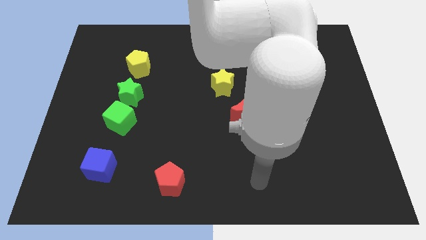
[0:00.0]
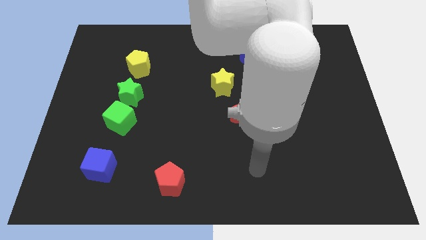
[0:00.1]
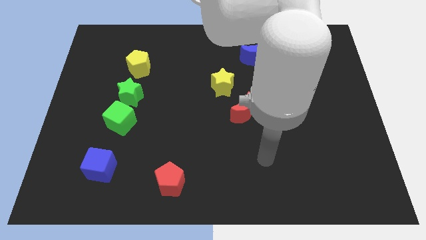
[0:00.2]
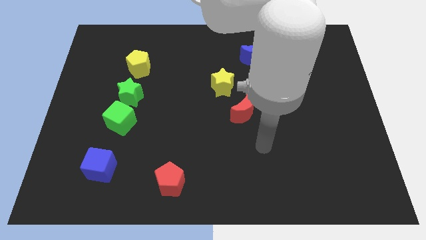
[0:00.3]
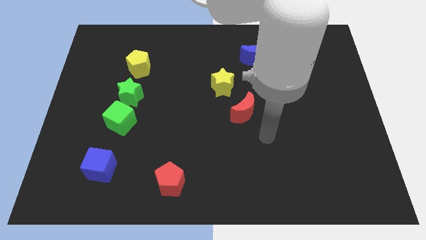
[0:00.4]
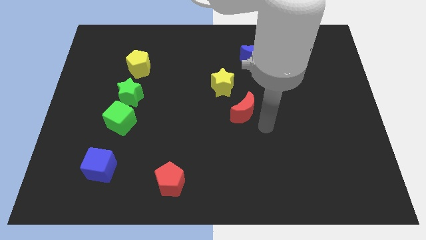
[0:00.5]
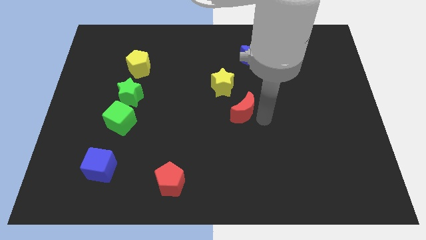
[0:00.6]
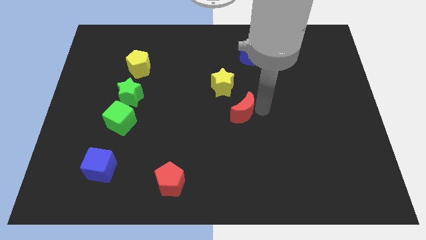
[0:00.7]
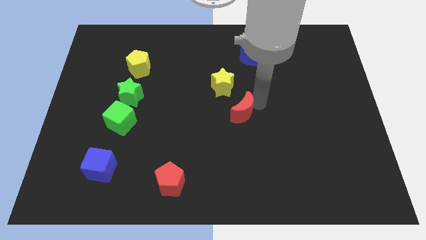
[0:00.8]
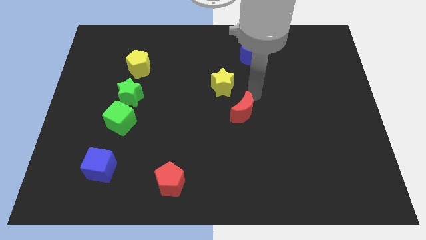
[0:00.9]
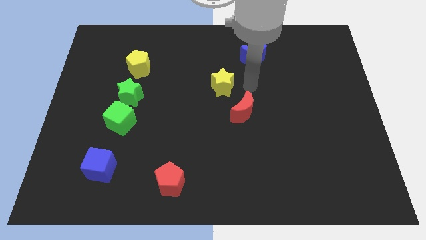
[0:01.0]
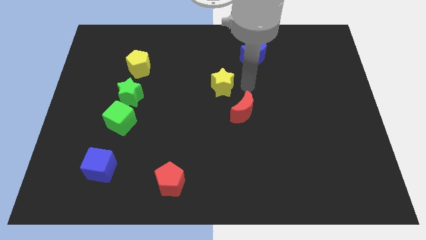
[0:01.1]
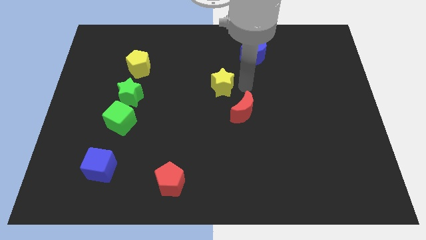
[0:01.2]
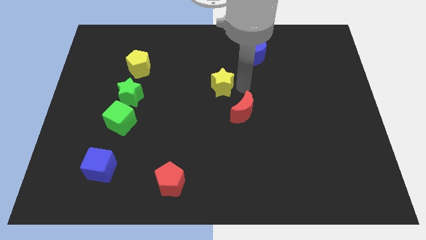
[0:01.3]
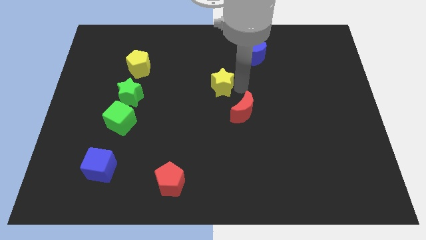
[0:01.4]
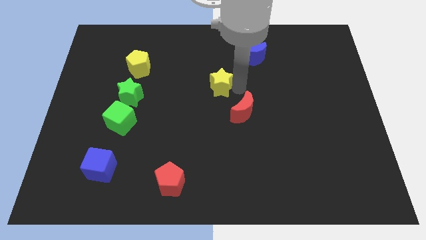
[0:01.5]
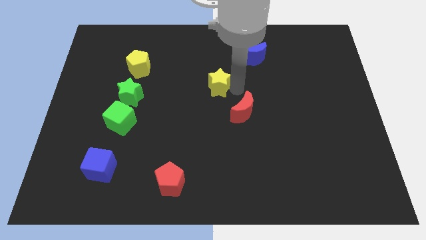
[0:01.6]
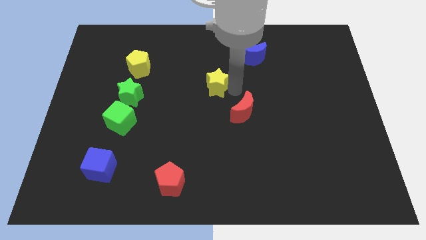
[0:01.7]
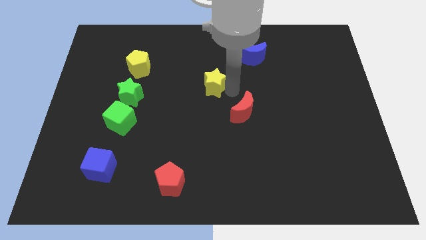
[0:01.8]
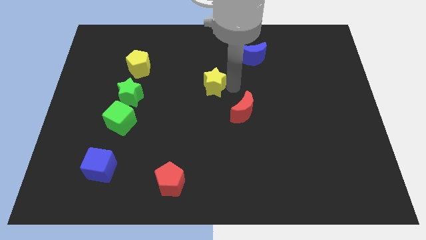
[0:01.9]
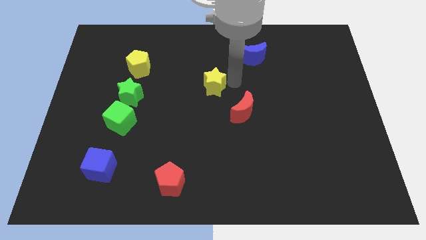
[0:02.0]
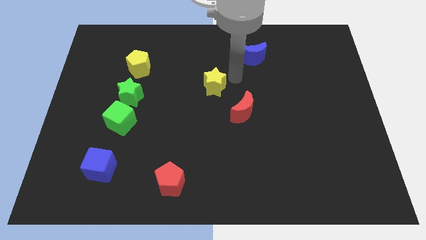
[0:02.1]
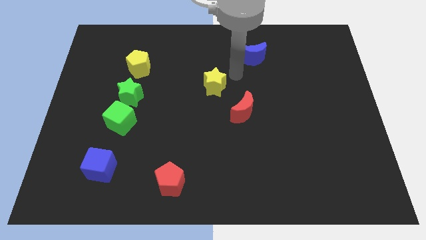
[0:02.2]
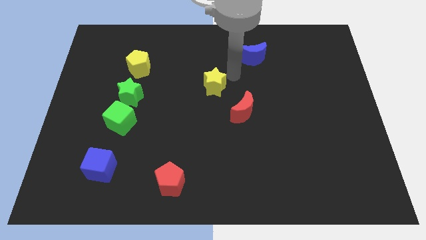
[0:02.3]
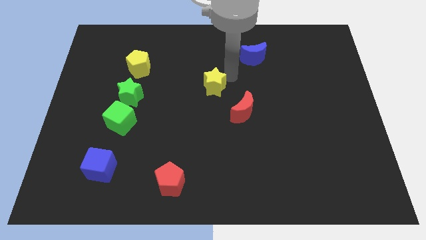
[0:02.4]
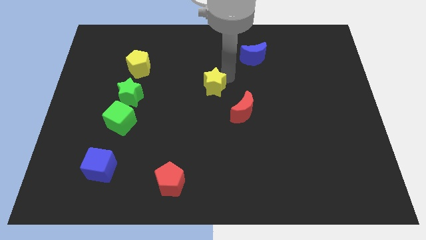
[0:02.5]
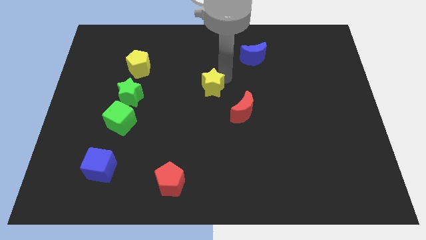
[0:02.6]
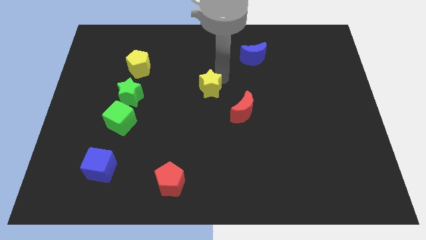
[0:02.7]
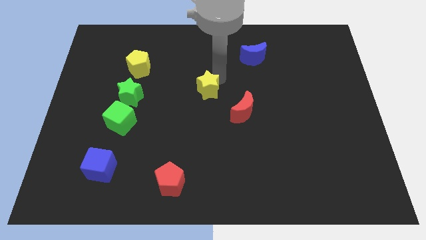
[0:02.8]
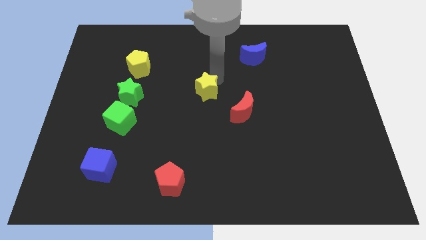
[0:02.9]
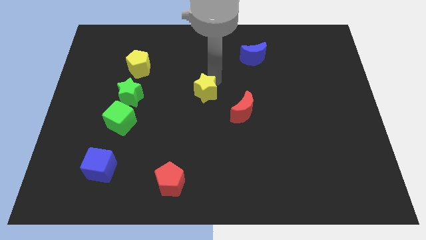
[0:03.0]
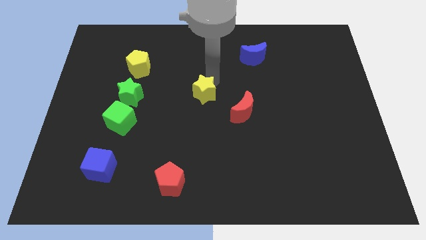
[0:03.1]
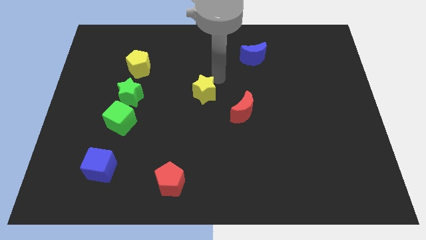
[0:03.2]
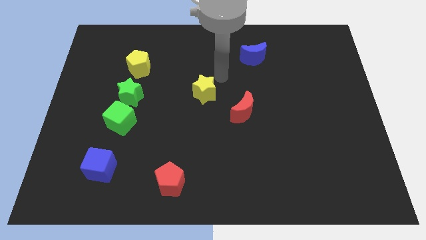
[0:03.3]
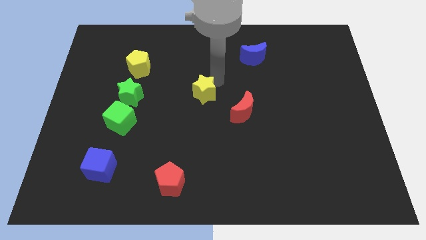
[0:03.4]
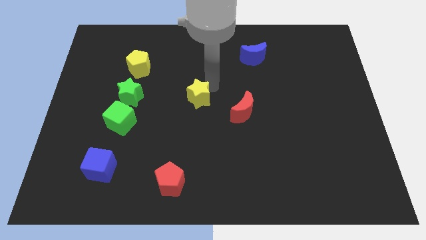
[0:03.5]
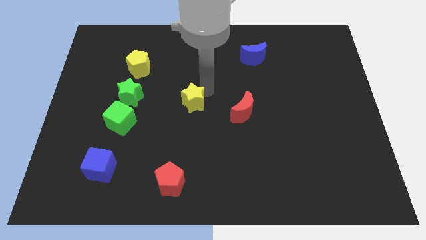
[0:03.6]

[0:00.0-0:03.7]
slightly push the yellow star down and left

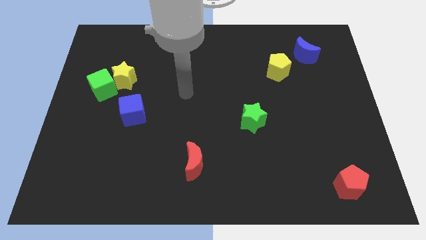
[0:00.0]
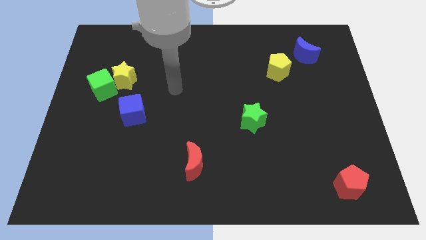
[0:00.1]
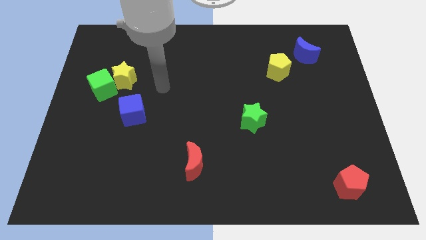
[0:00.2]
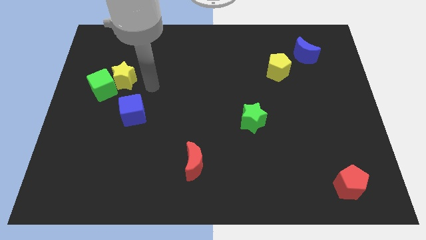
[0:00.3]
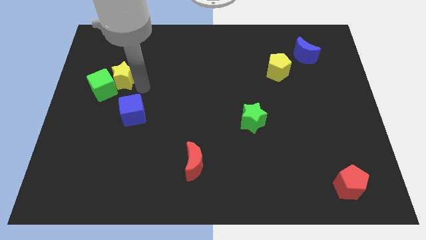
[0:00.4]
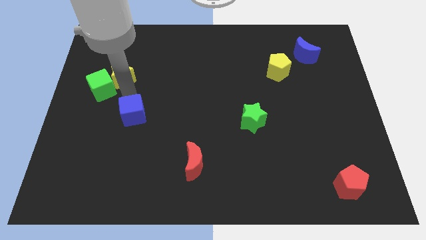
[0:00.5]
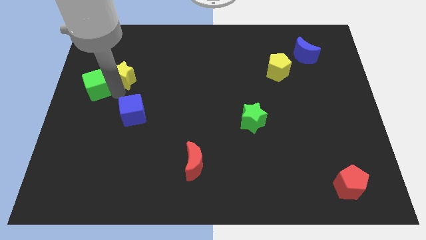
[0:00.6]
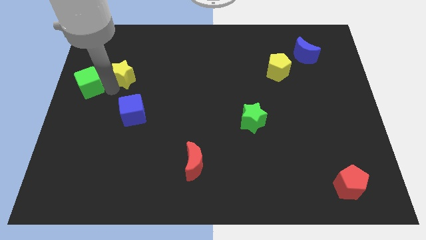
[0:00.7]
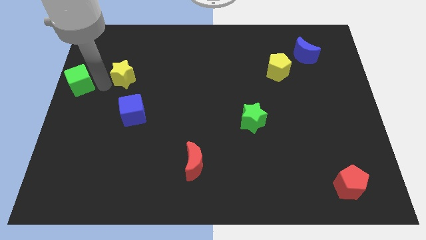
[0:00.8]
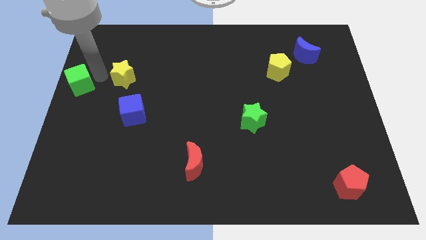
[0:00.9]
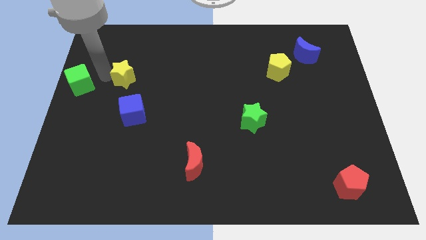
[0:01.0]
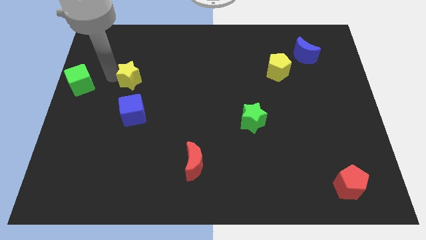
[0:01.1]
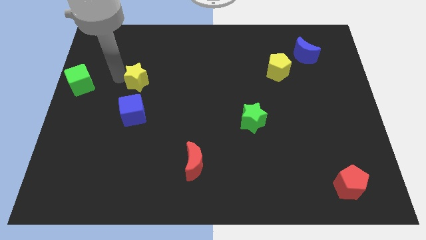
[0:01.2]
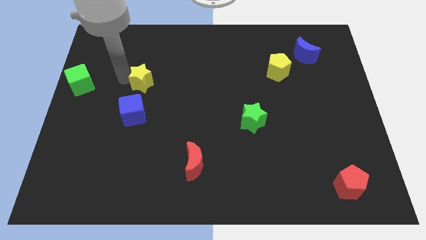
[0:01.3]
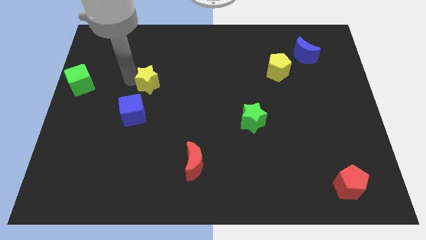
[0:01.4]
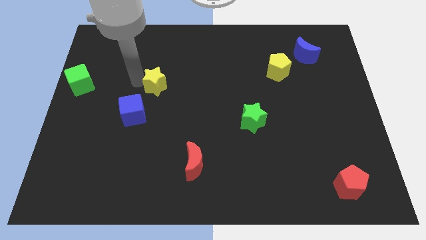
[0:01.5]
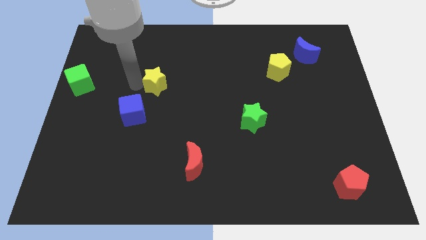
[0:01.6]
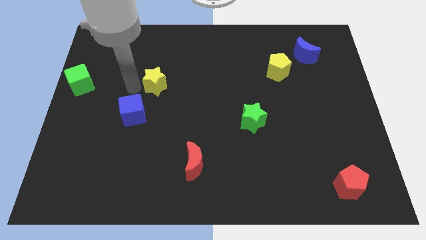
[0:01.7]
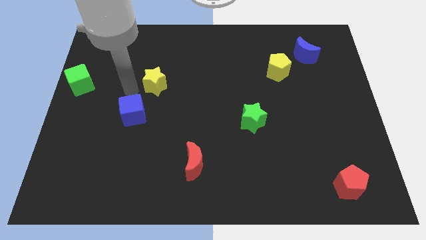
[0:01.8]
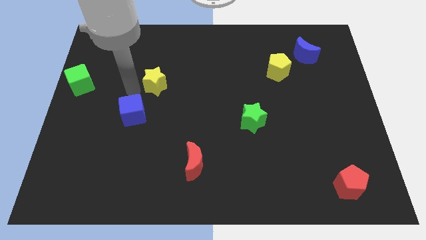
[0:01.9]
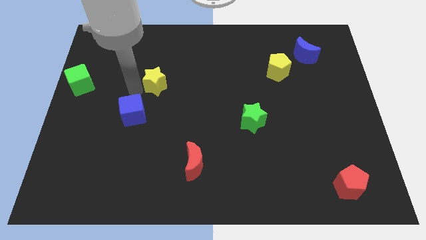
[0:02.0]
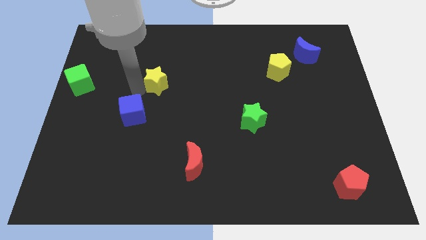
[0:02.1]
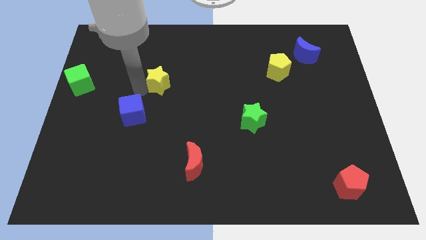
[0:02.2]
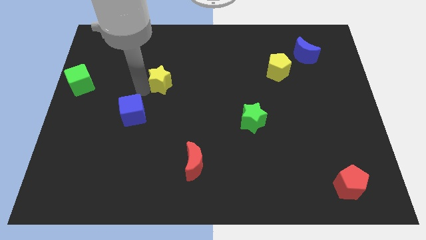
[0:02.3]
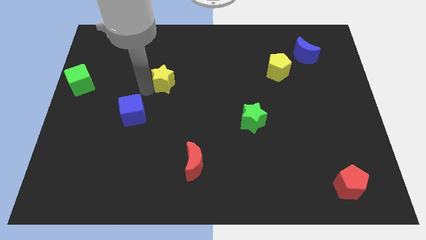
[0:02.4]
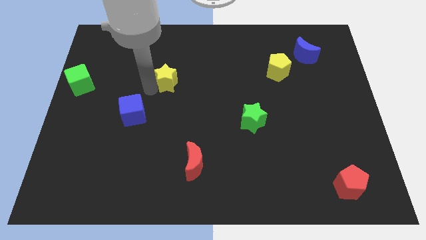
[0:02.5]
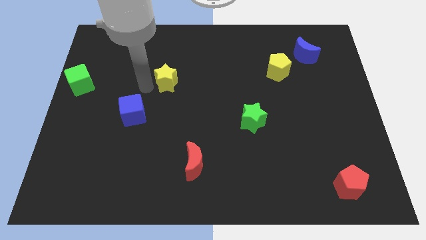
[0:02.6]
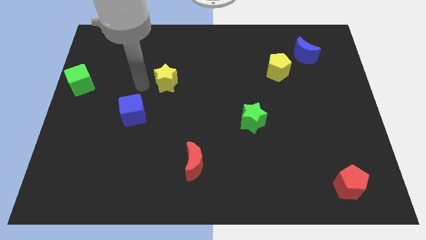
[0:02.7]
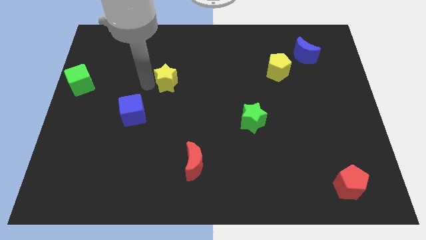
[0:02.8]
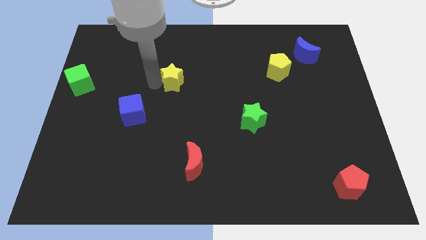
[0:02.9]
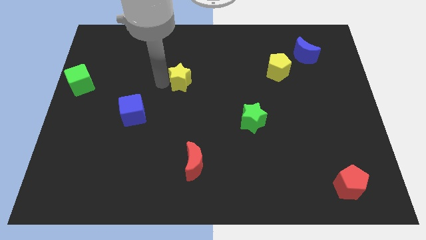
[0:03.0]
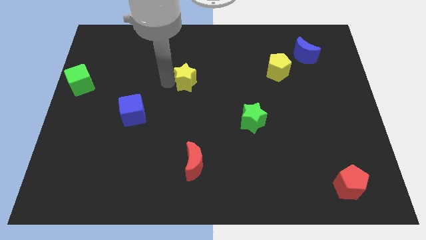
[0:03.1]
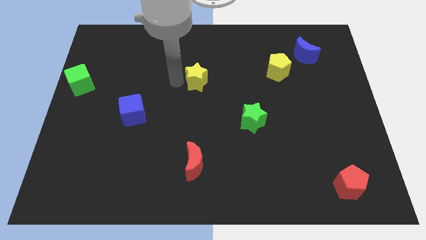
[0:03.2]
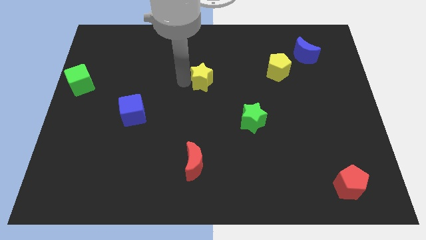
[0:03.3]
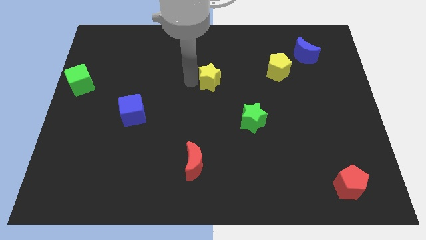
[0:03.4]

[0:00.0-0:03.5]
push the yellow star right

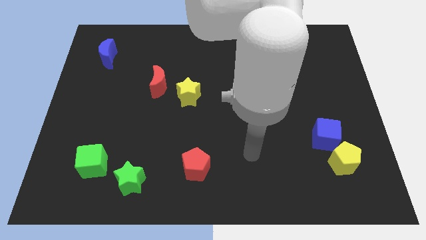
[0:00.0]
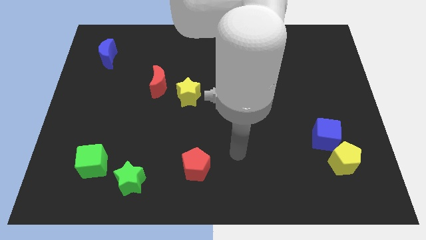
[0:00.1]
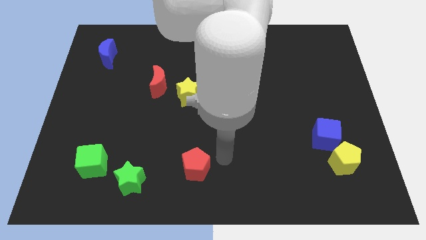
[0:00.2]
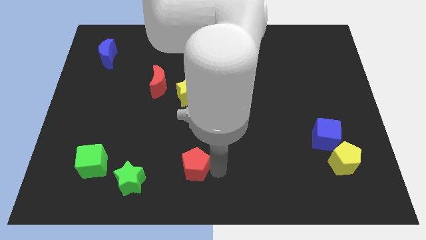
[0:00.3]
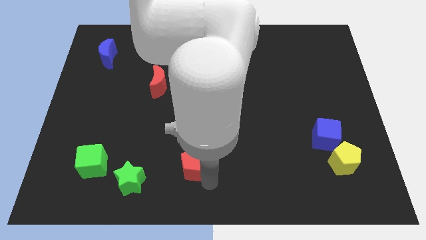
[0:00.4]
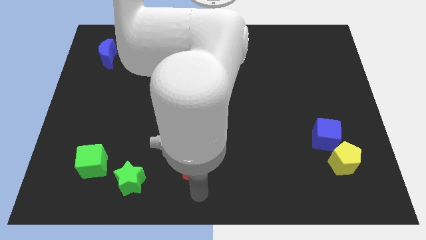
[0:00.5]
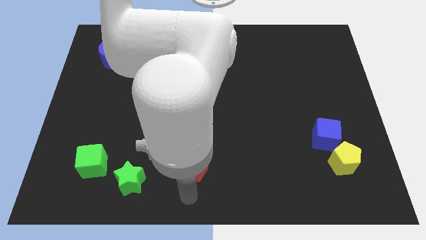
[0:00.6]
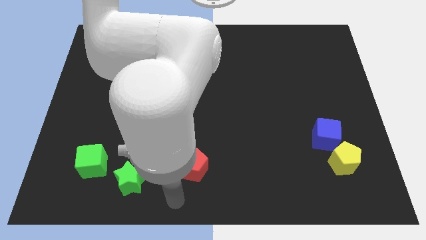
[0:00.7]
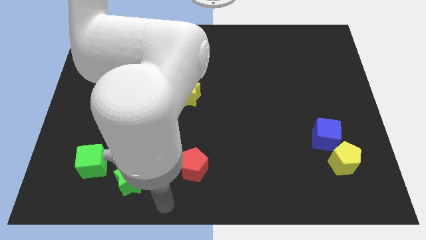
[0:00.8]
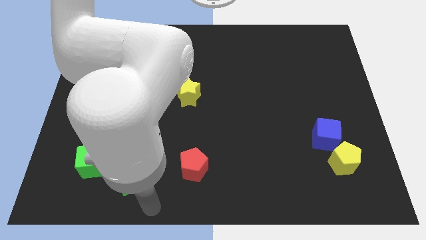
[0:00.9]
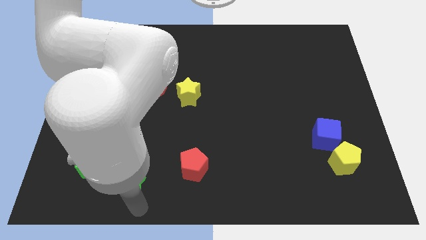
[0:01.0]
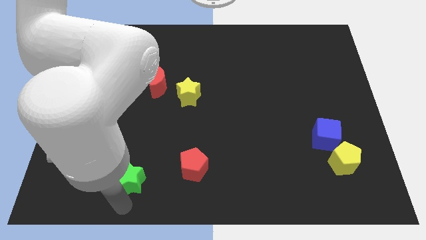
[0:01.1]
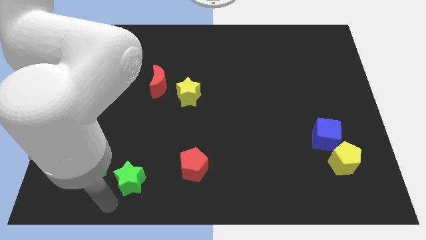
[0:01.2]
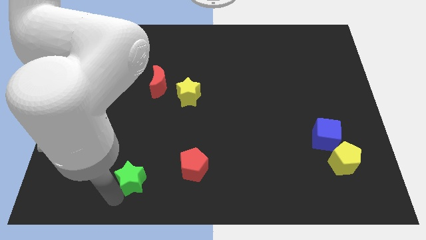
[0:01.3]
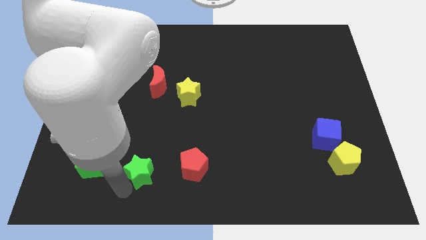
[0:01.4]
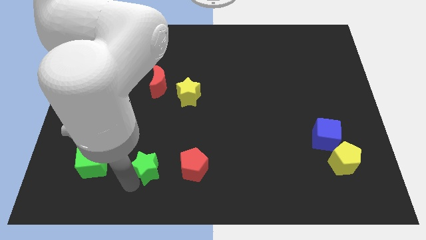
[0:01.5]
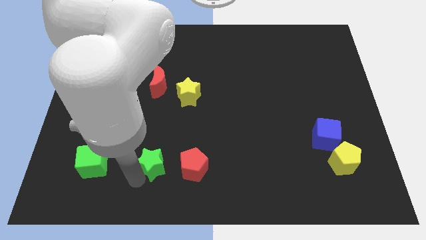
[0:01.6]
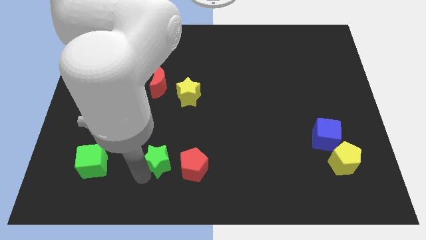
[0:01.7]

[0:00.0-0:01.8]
slightly push the green star upwards and to the right
